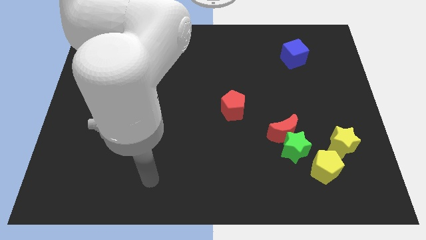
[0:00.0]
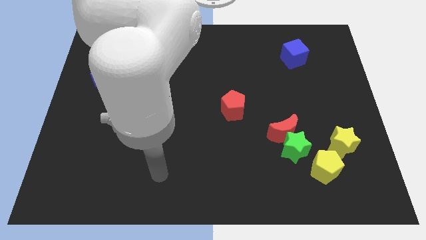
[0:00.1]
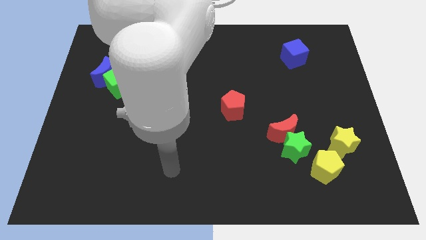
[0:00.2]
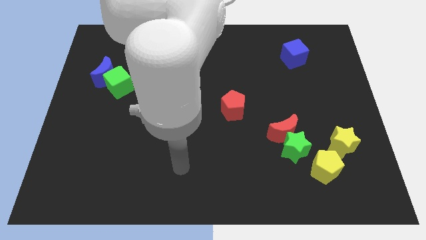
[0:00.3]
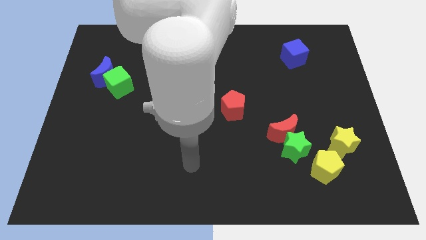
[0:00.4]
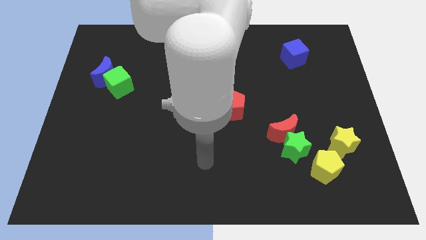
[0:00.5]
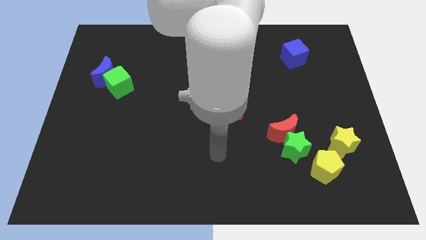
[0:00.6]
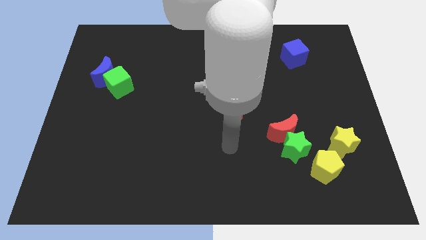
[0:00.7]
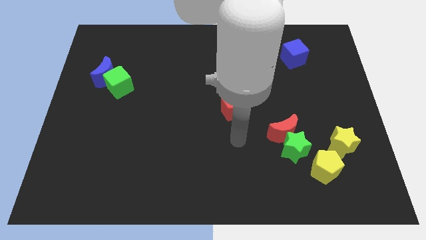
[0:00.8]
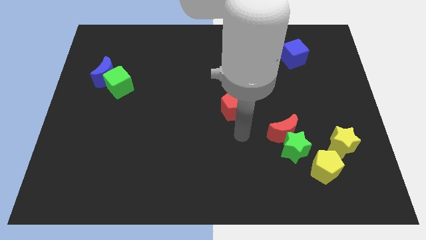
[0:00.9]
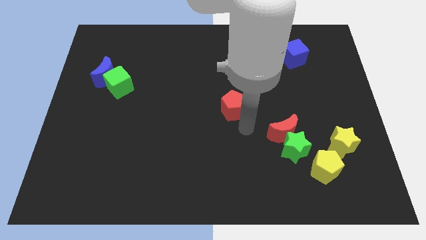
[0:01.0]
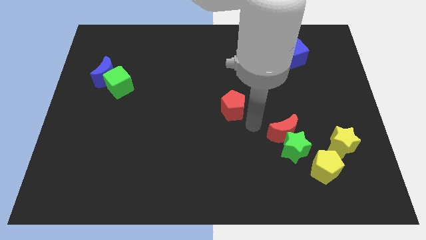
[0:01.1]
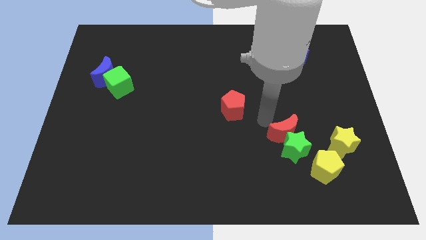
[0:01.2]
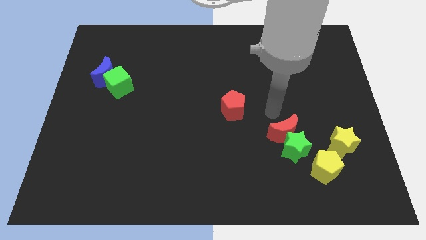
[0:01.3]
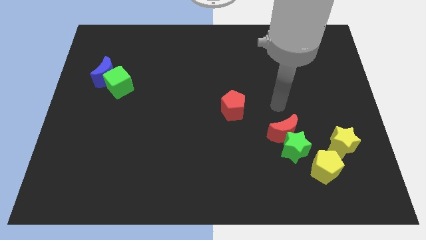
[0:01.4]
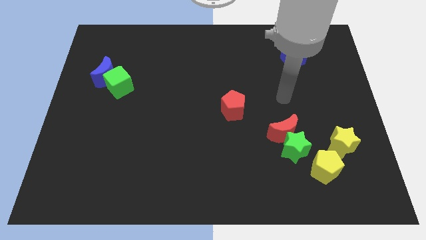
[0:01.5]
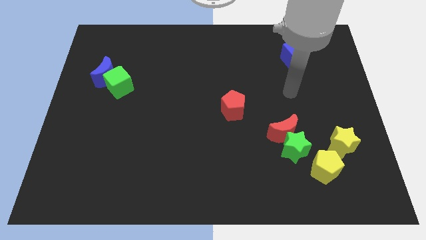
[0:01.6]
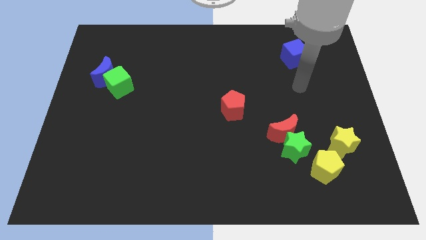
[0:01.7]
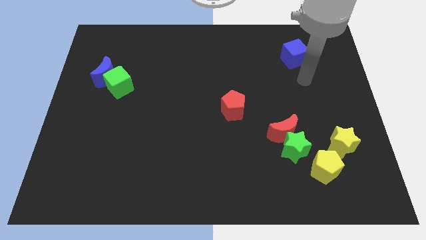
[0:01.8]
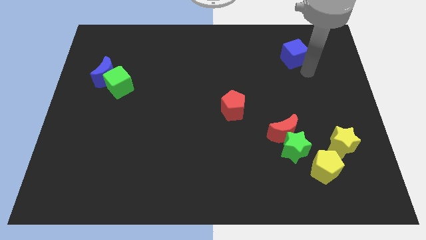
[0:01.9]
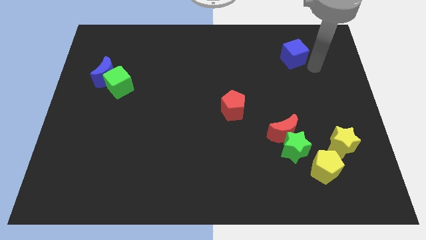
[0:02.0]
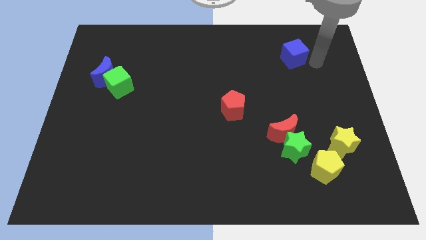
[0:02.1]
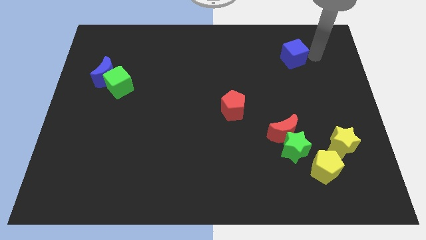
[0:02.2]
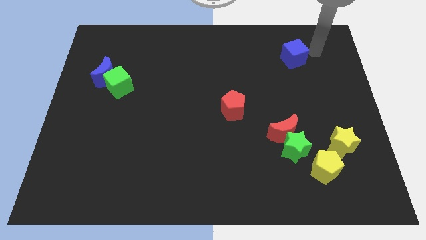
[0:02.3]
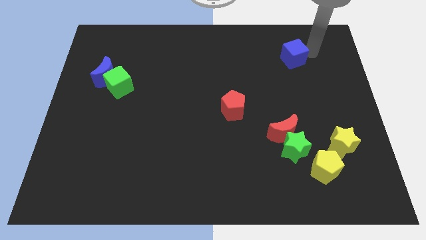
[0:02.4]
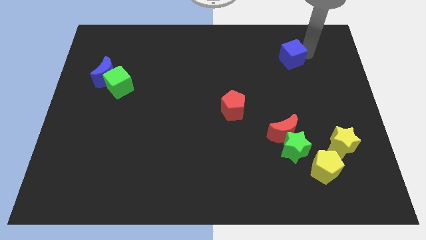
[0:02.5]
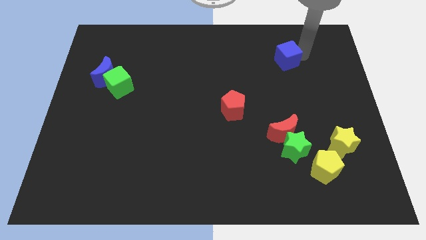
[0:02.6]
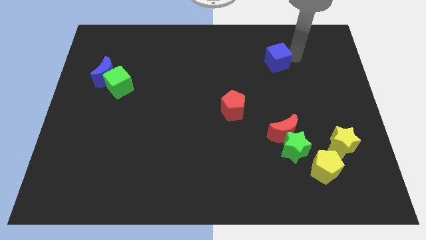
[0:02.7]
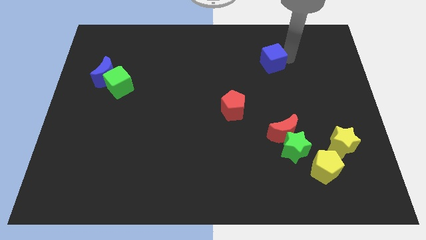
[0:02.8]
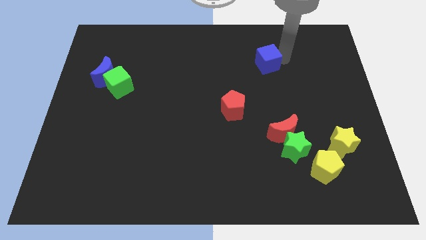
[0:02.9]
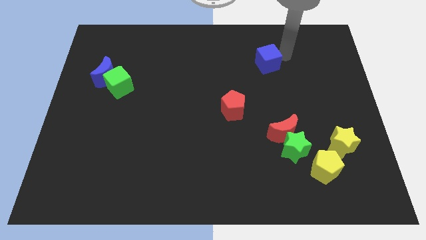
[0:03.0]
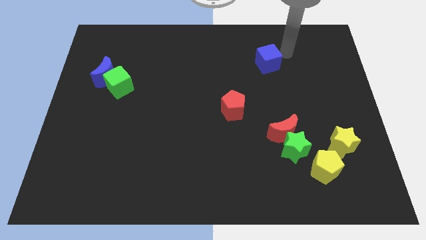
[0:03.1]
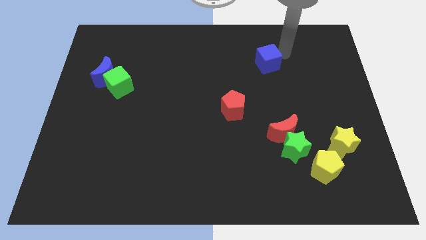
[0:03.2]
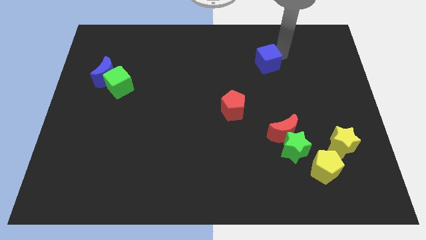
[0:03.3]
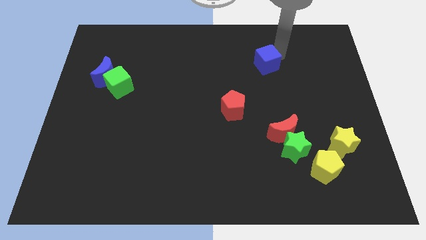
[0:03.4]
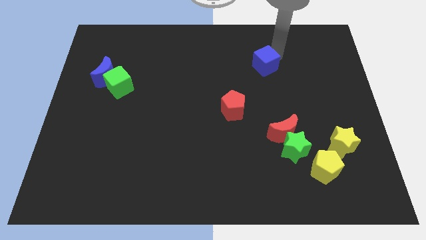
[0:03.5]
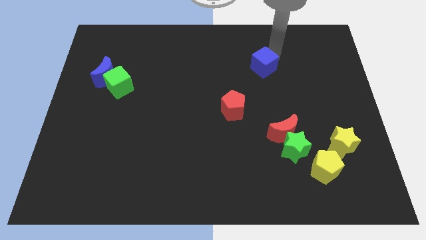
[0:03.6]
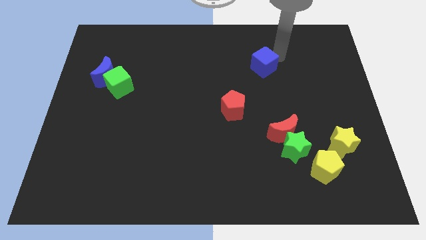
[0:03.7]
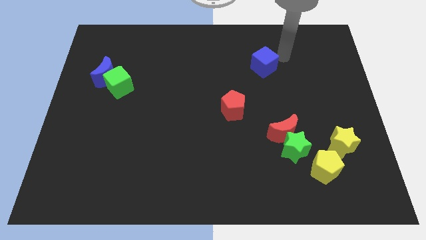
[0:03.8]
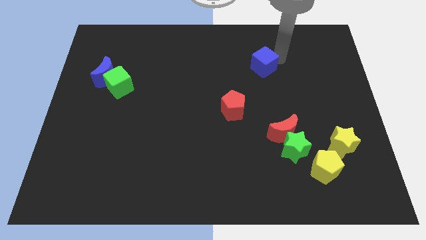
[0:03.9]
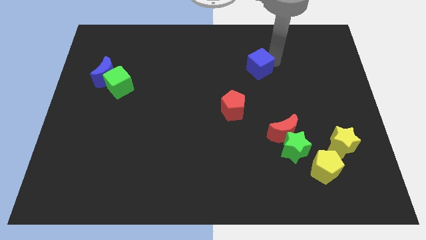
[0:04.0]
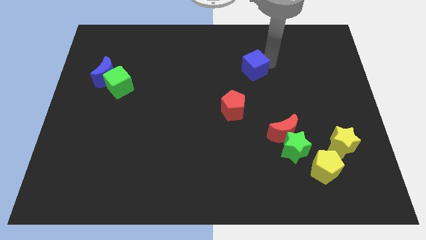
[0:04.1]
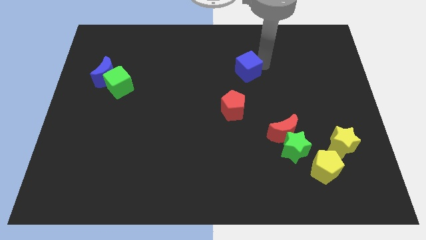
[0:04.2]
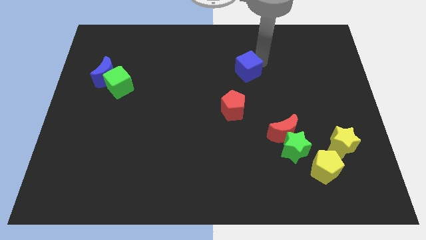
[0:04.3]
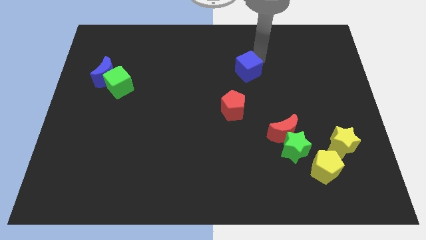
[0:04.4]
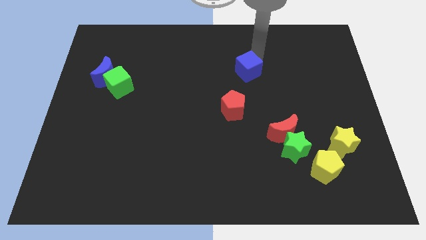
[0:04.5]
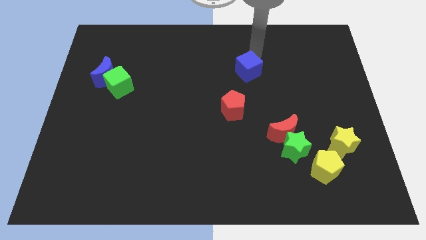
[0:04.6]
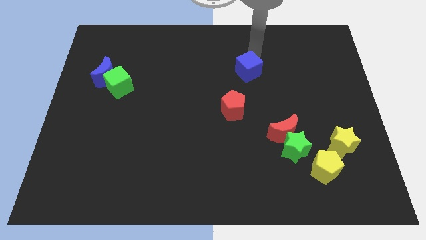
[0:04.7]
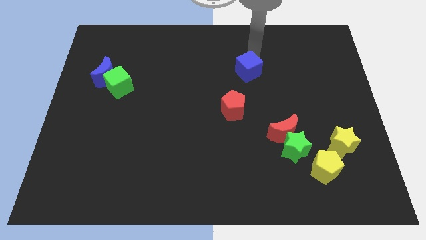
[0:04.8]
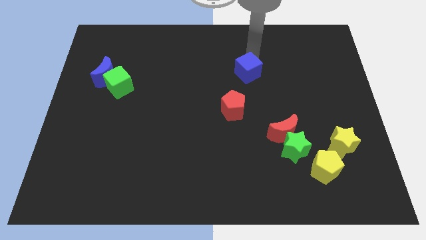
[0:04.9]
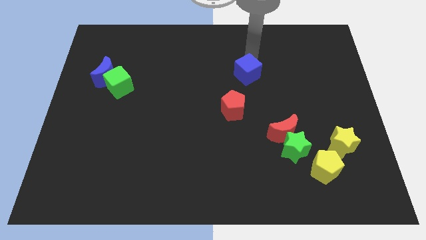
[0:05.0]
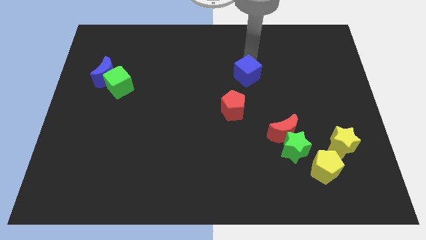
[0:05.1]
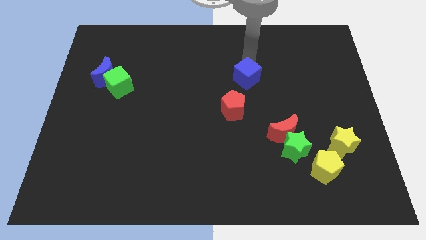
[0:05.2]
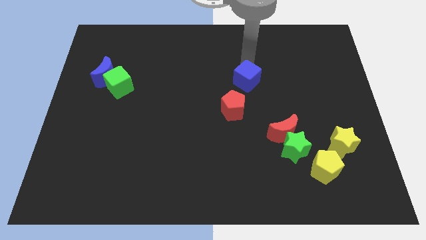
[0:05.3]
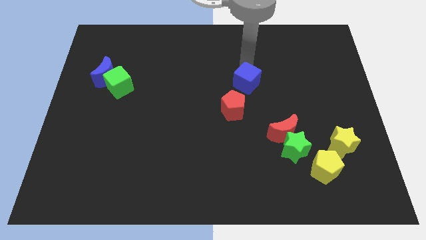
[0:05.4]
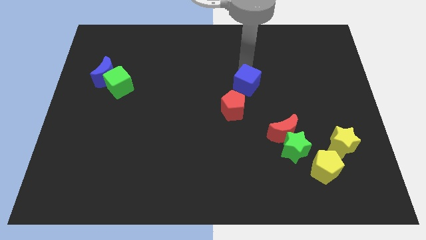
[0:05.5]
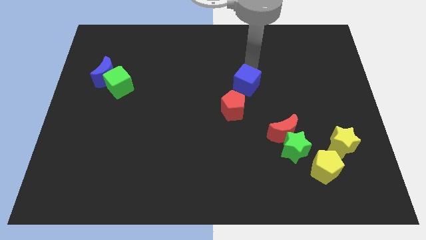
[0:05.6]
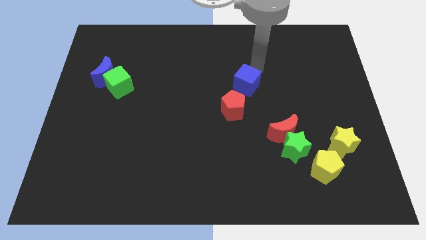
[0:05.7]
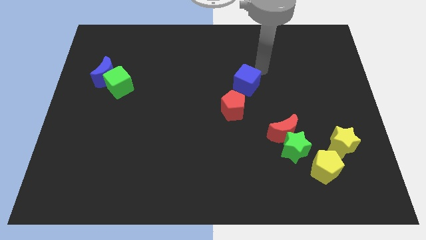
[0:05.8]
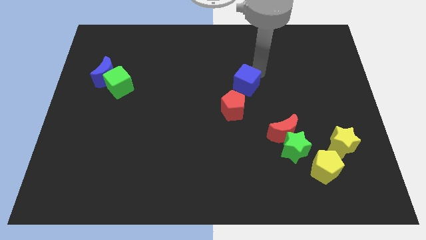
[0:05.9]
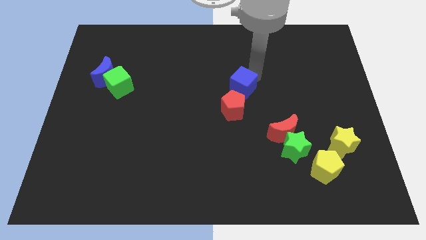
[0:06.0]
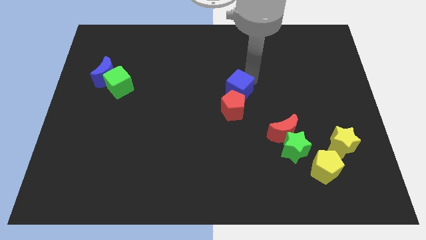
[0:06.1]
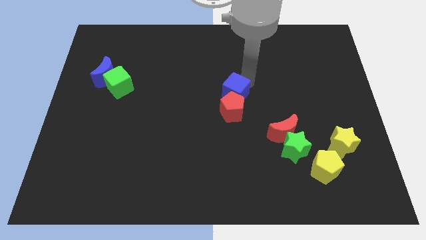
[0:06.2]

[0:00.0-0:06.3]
put the blue cube next to the red pentagon
